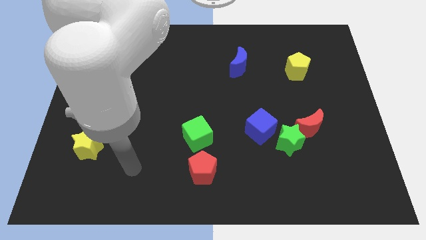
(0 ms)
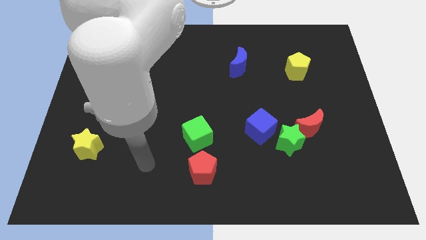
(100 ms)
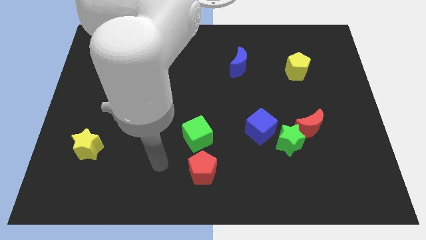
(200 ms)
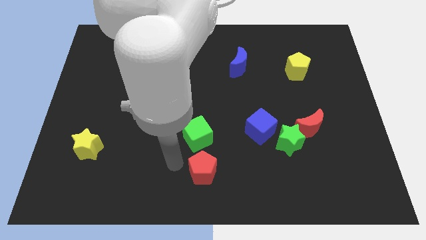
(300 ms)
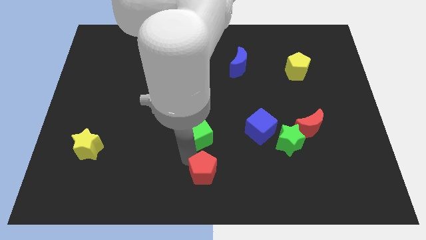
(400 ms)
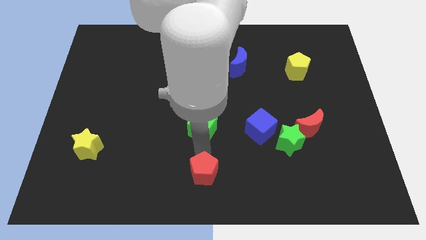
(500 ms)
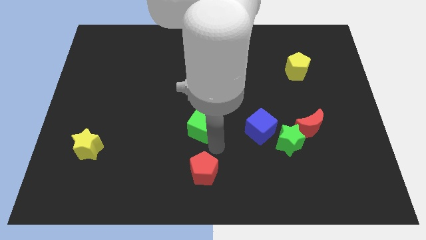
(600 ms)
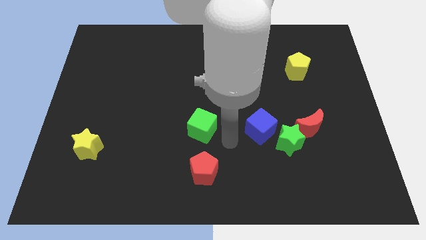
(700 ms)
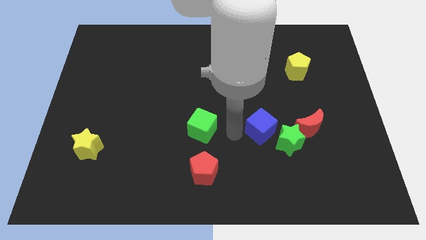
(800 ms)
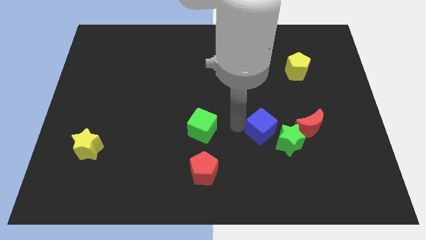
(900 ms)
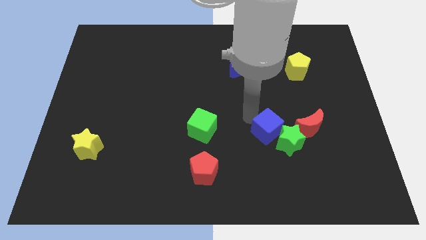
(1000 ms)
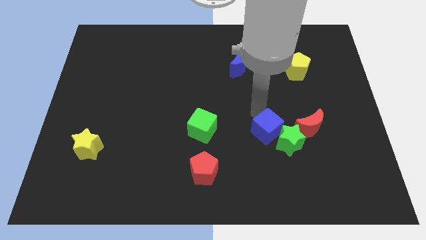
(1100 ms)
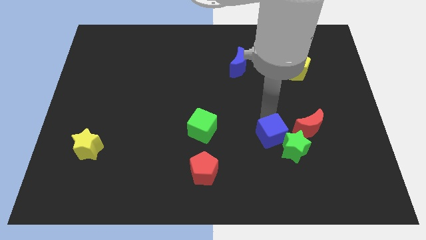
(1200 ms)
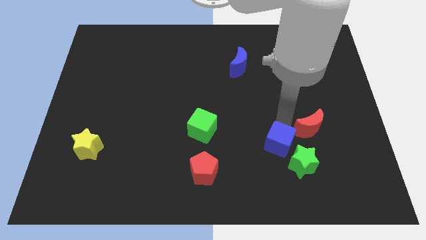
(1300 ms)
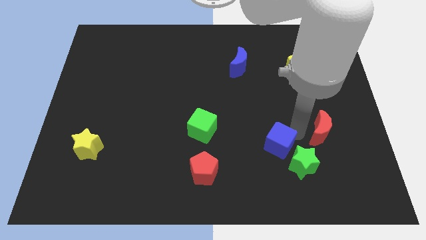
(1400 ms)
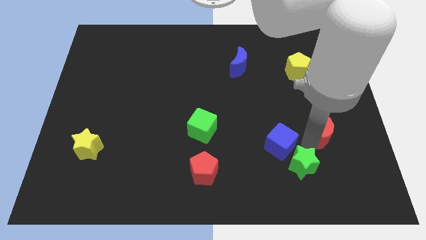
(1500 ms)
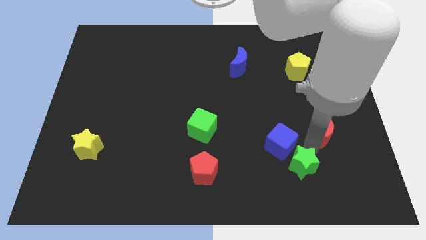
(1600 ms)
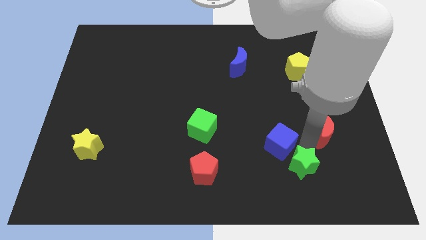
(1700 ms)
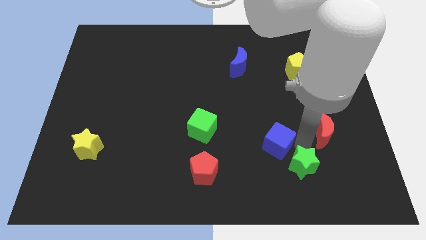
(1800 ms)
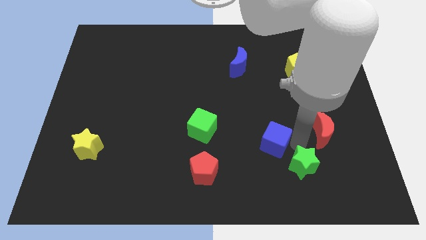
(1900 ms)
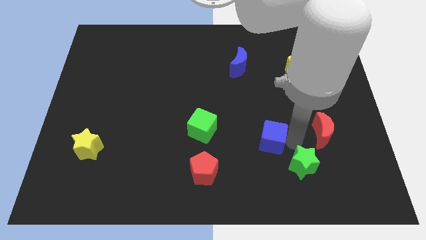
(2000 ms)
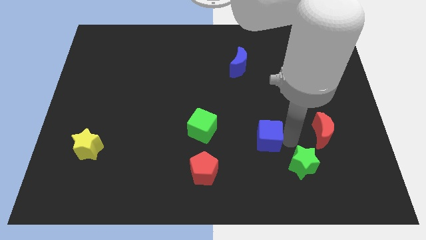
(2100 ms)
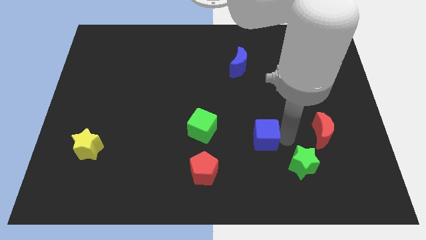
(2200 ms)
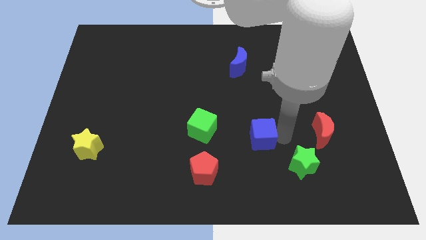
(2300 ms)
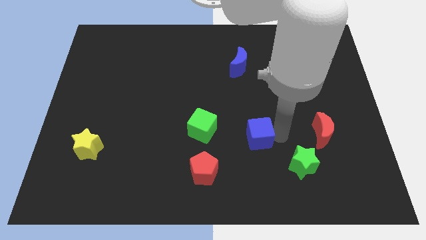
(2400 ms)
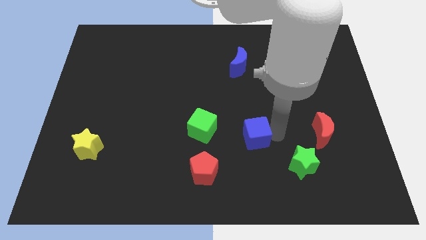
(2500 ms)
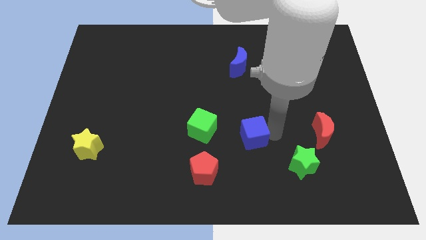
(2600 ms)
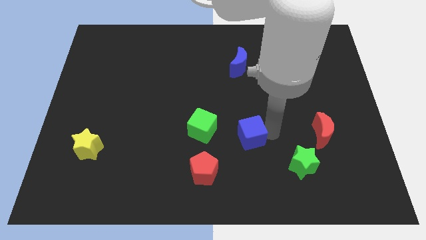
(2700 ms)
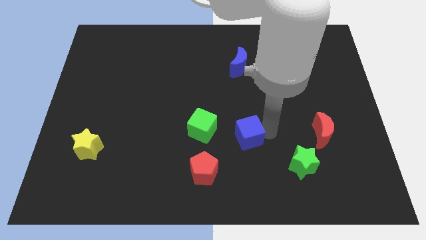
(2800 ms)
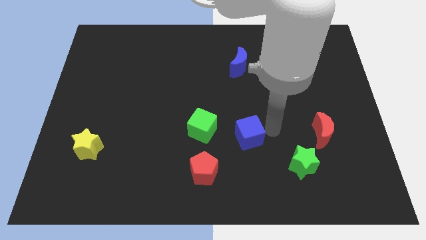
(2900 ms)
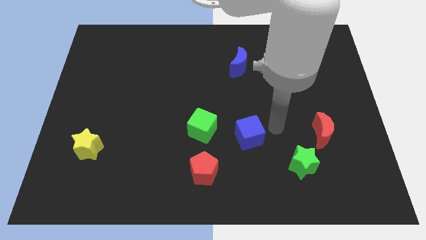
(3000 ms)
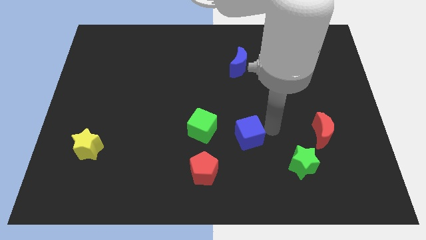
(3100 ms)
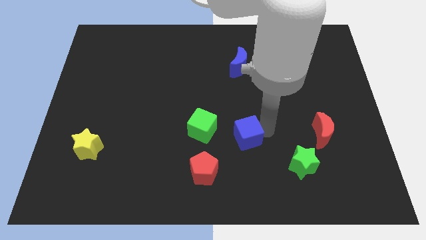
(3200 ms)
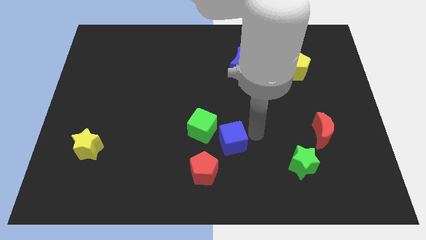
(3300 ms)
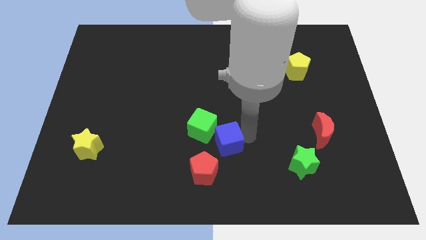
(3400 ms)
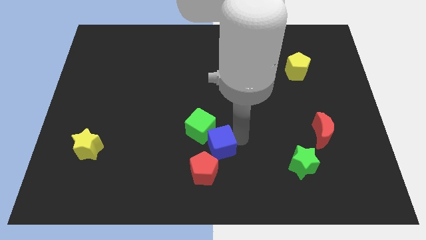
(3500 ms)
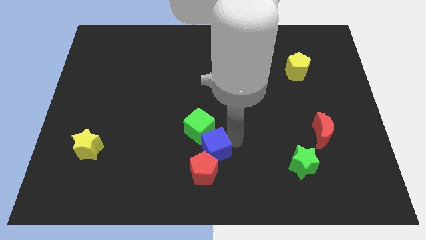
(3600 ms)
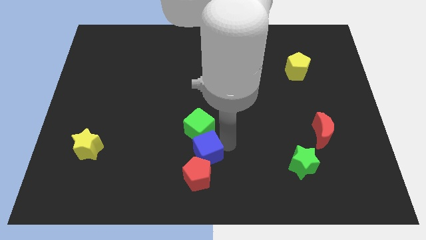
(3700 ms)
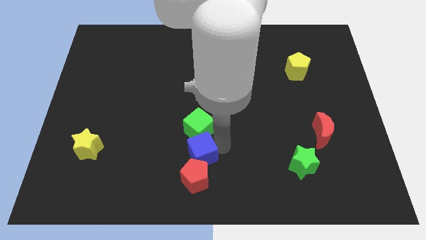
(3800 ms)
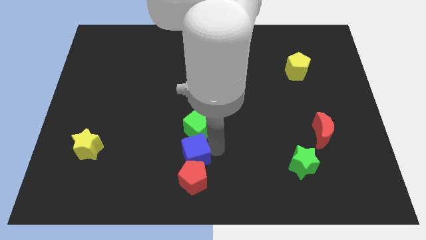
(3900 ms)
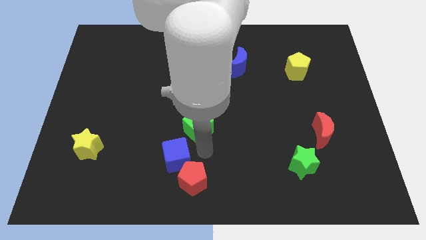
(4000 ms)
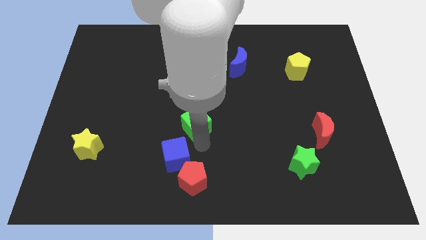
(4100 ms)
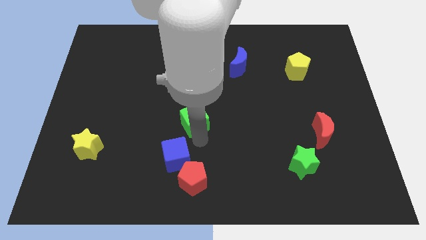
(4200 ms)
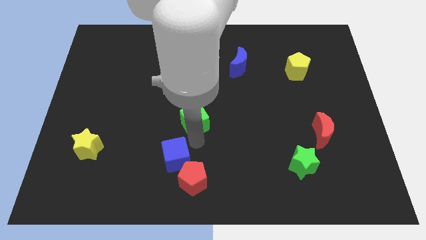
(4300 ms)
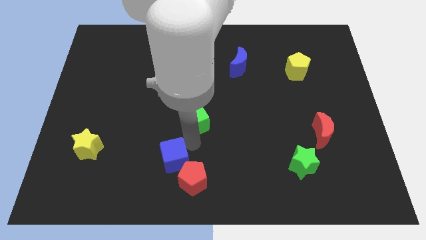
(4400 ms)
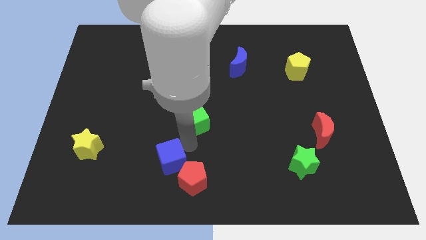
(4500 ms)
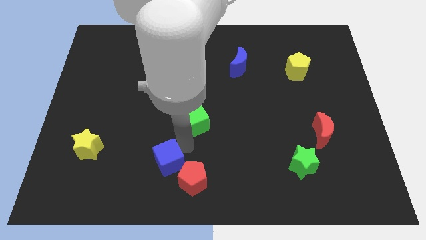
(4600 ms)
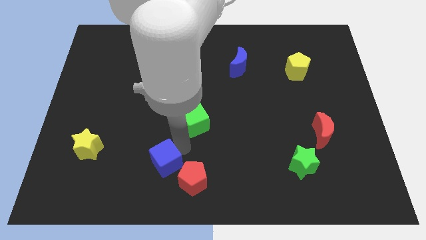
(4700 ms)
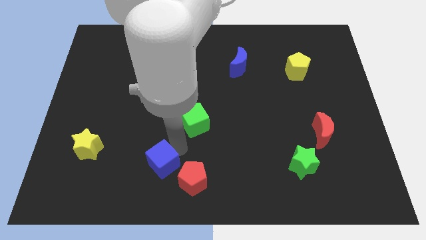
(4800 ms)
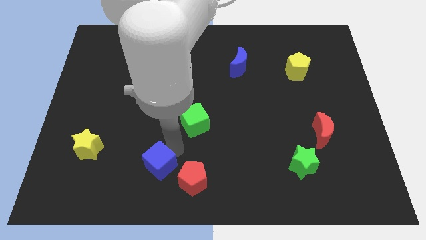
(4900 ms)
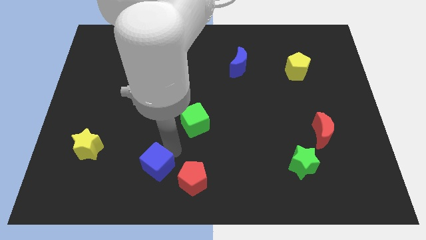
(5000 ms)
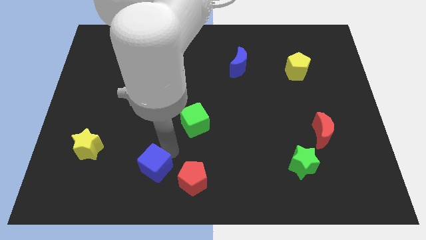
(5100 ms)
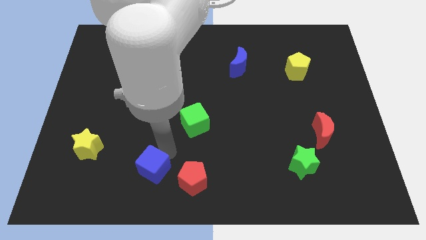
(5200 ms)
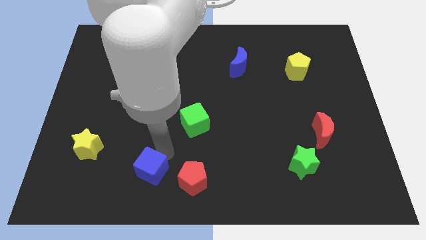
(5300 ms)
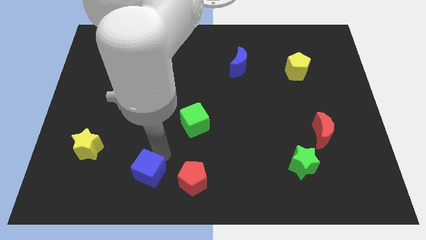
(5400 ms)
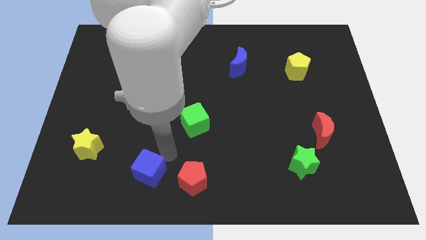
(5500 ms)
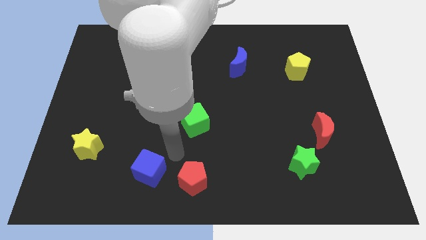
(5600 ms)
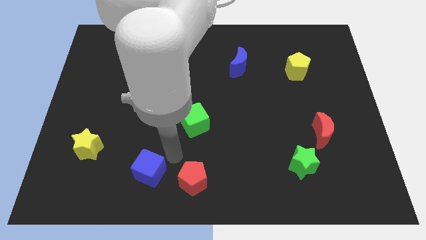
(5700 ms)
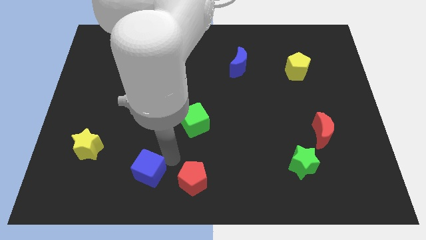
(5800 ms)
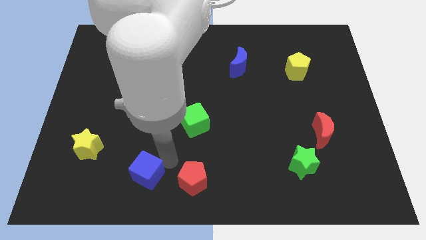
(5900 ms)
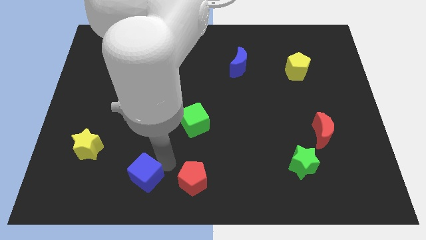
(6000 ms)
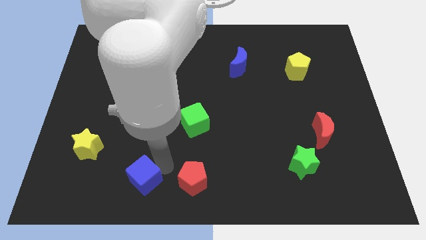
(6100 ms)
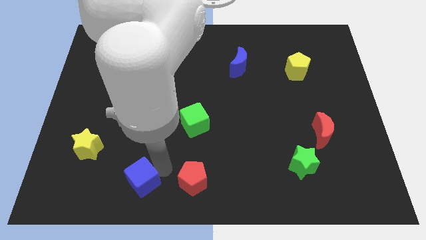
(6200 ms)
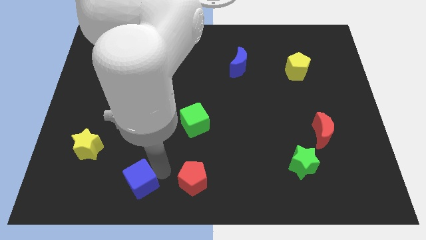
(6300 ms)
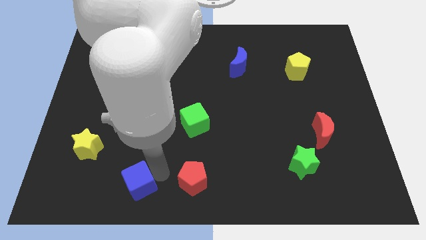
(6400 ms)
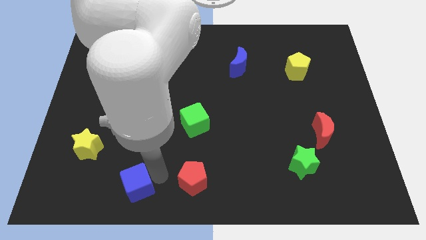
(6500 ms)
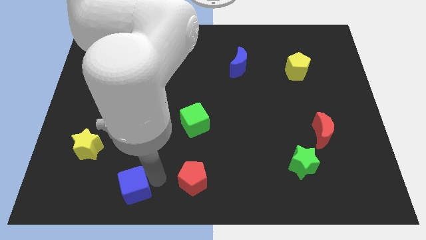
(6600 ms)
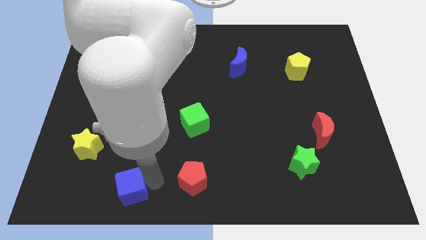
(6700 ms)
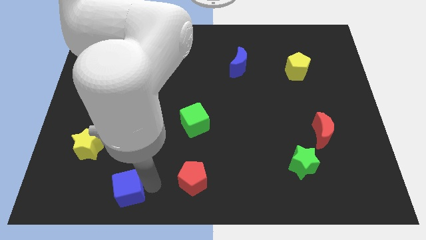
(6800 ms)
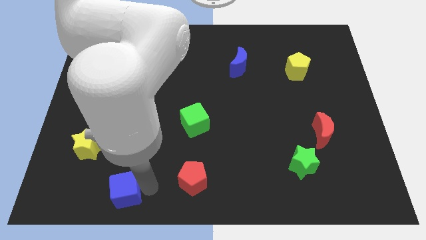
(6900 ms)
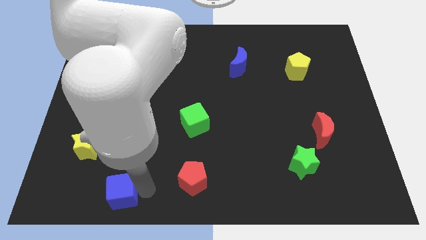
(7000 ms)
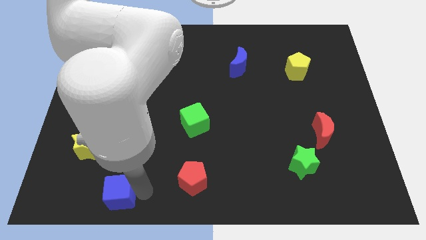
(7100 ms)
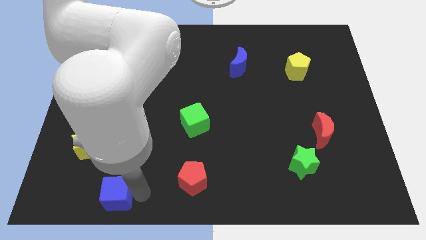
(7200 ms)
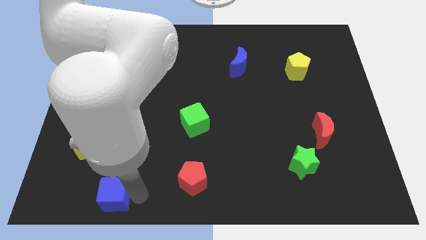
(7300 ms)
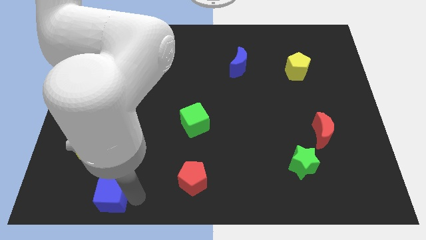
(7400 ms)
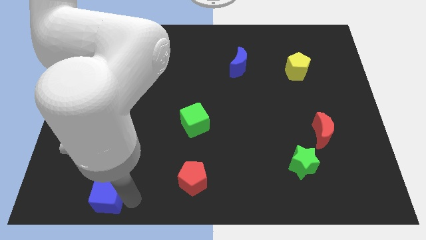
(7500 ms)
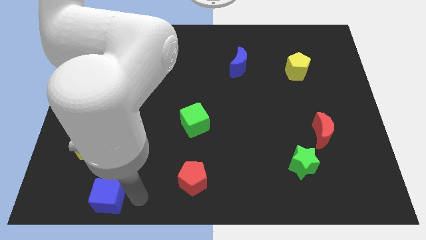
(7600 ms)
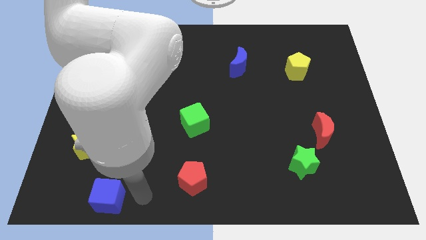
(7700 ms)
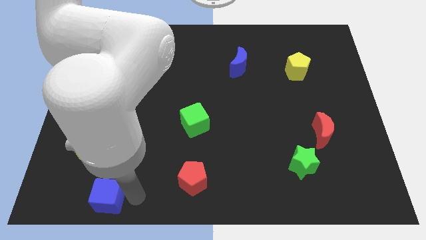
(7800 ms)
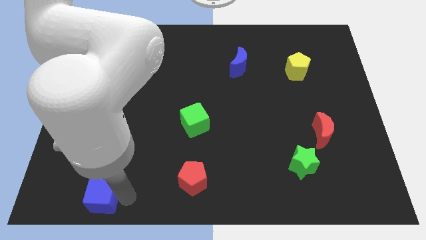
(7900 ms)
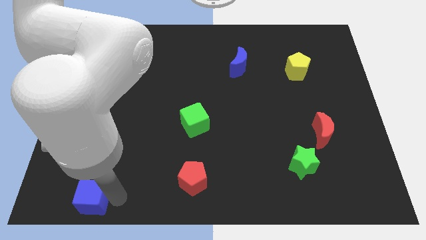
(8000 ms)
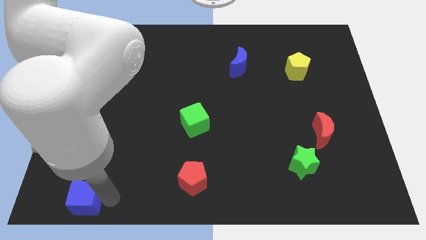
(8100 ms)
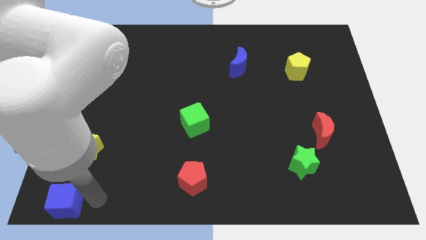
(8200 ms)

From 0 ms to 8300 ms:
slide the blue cube to the bottom left
